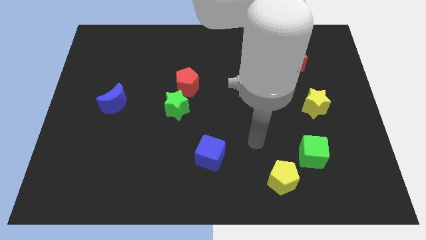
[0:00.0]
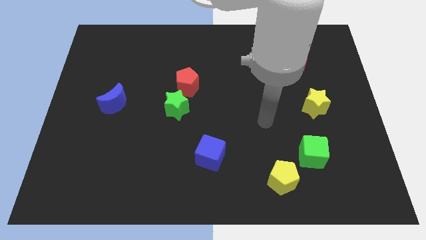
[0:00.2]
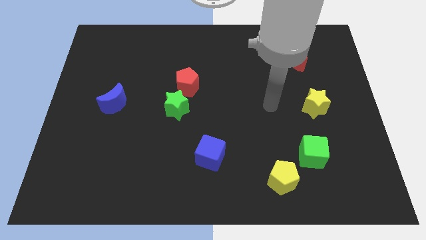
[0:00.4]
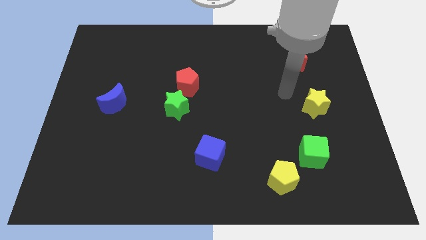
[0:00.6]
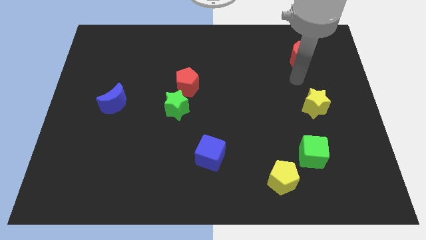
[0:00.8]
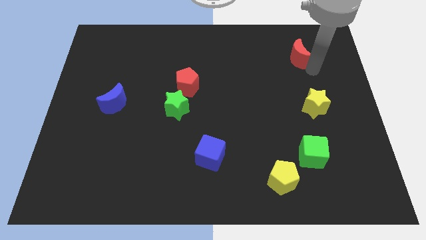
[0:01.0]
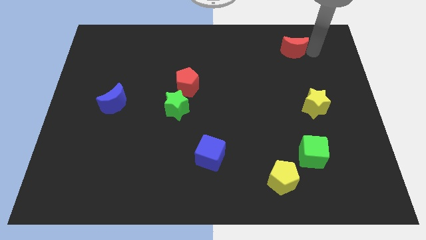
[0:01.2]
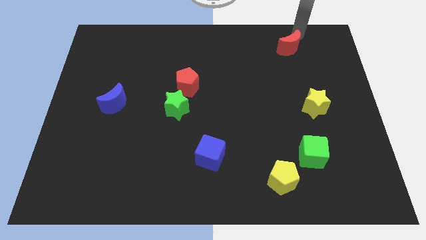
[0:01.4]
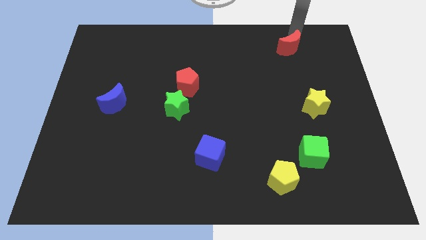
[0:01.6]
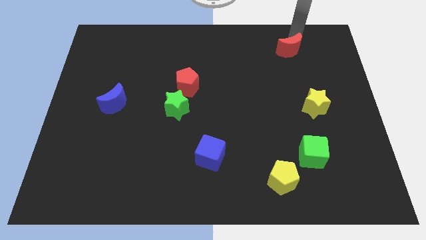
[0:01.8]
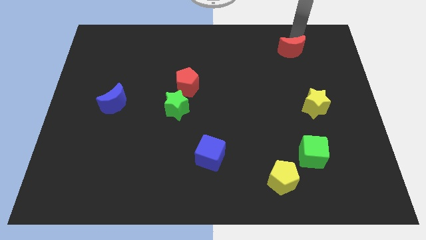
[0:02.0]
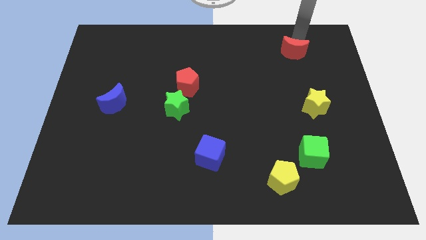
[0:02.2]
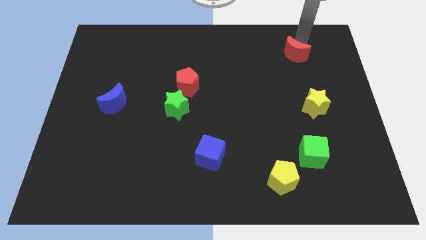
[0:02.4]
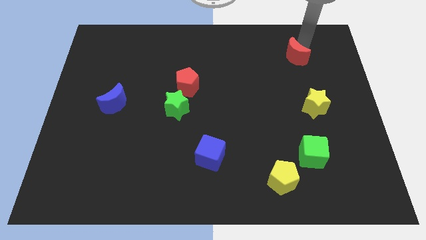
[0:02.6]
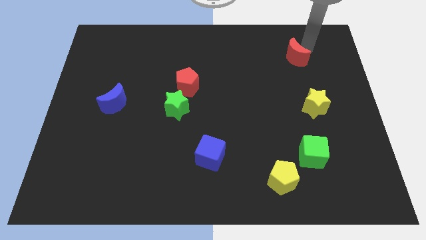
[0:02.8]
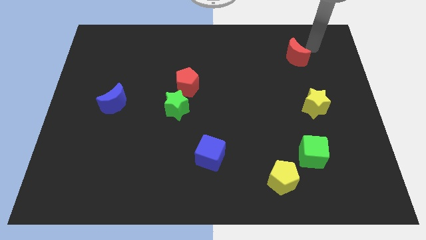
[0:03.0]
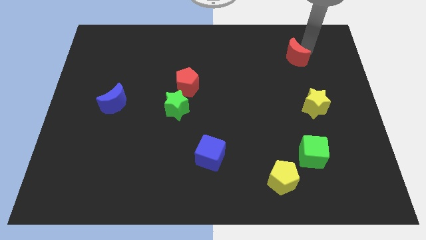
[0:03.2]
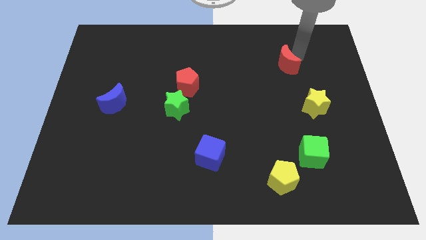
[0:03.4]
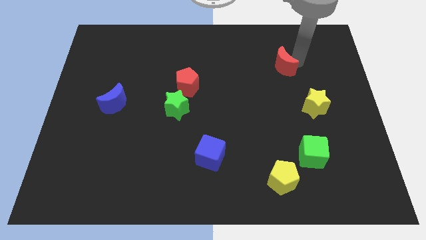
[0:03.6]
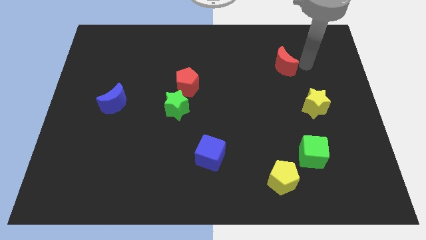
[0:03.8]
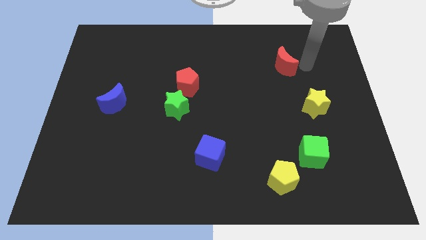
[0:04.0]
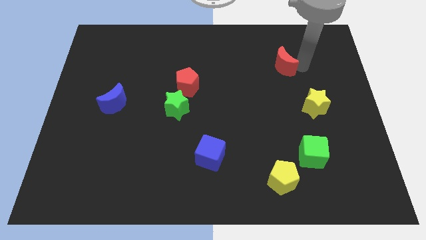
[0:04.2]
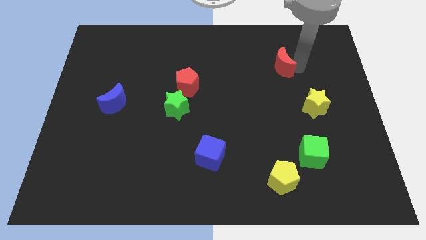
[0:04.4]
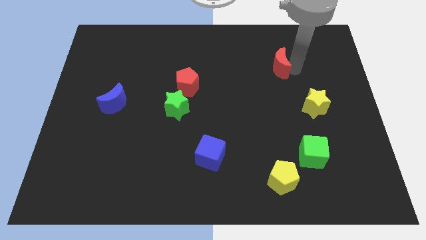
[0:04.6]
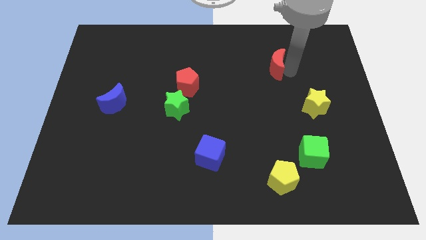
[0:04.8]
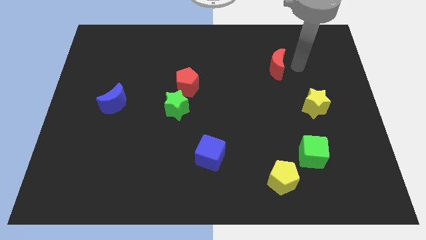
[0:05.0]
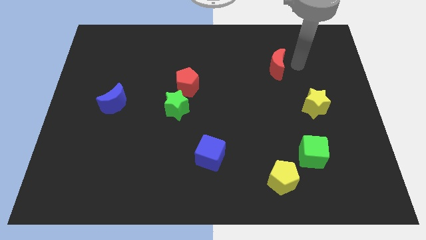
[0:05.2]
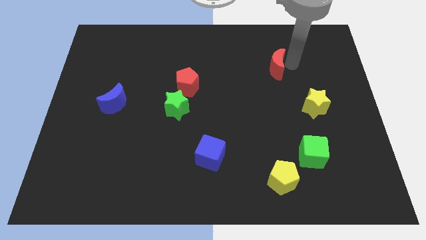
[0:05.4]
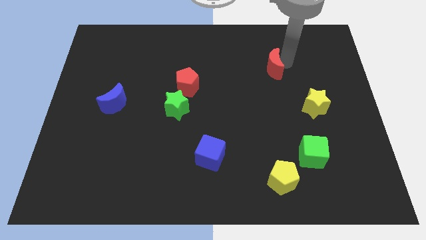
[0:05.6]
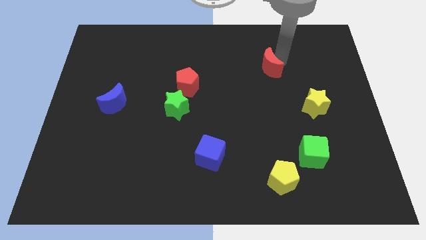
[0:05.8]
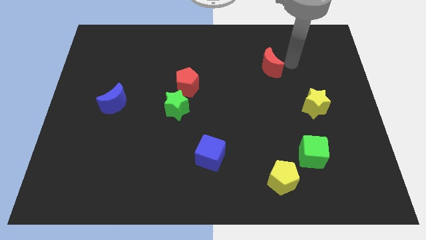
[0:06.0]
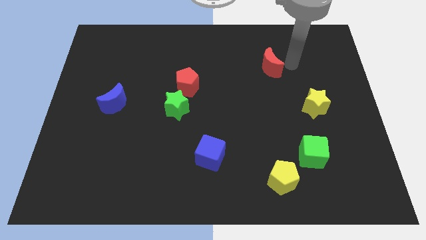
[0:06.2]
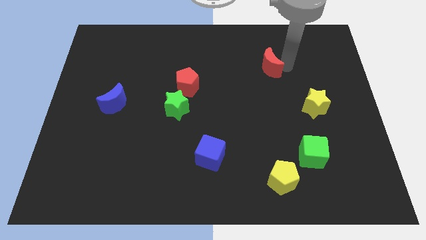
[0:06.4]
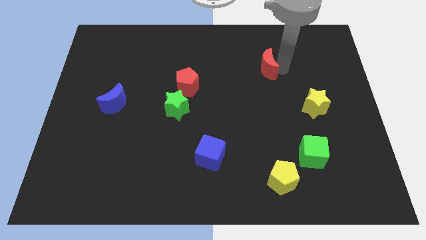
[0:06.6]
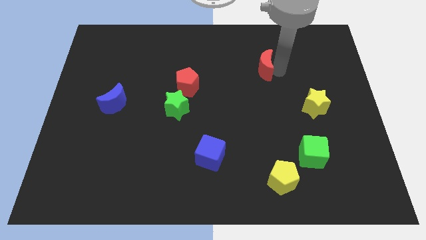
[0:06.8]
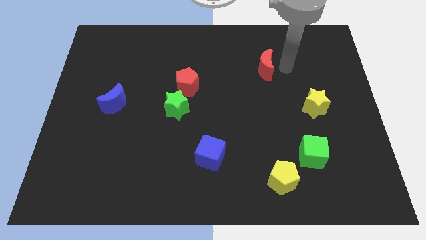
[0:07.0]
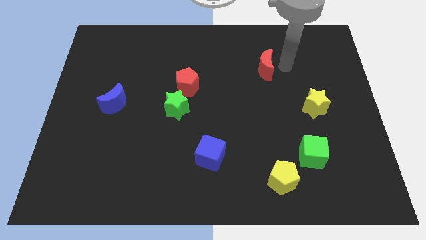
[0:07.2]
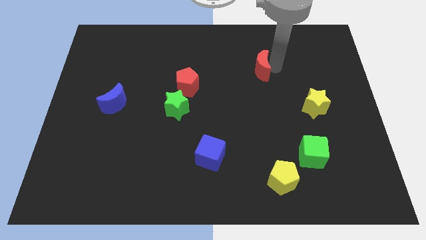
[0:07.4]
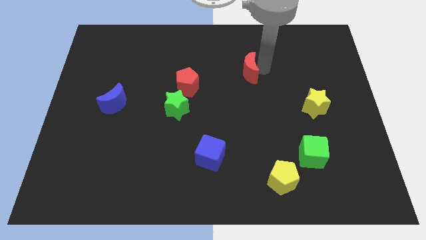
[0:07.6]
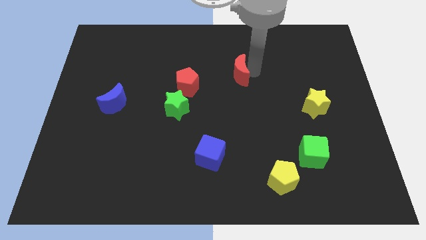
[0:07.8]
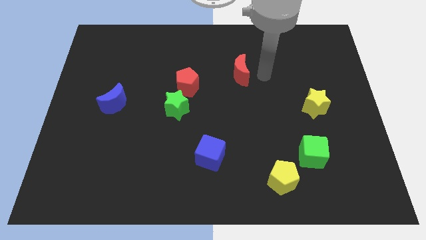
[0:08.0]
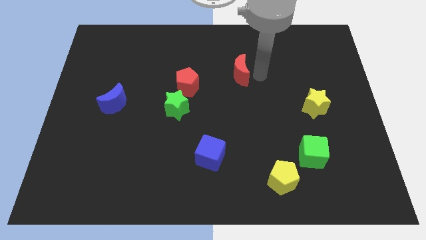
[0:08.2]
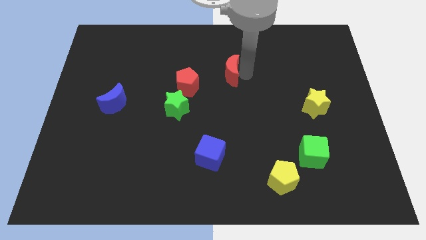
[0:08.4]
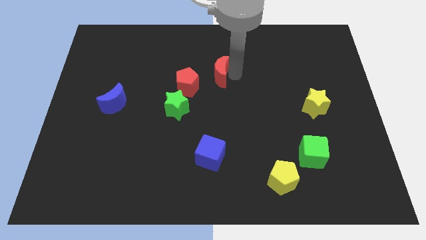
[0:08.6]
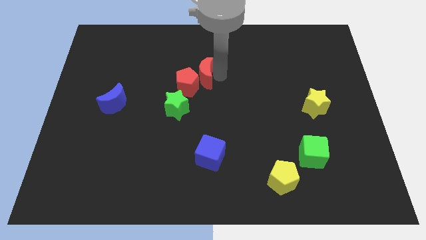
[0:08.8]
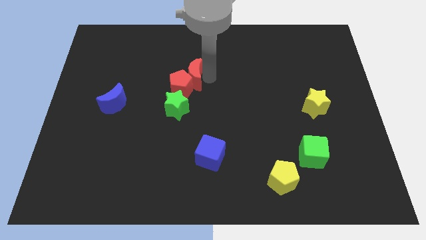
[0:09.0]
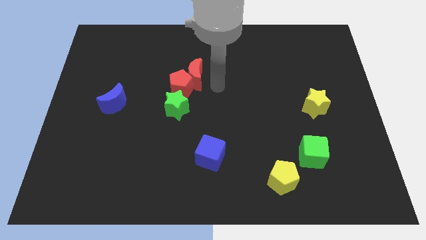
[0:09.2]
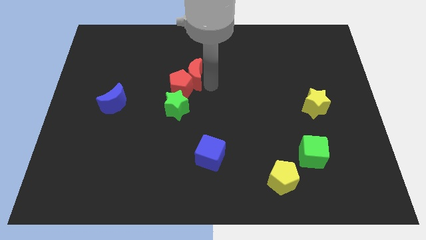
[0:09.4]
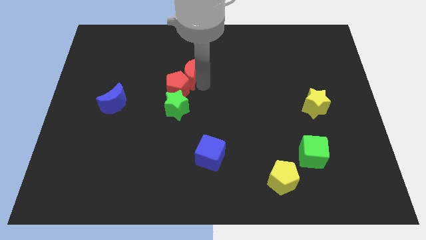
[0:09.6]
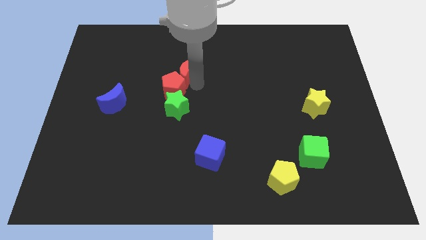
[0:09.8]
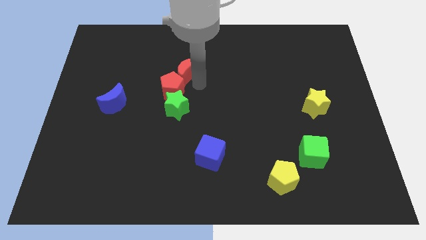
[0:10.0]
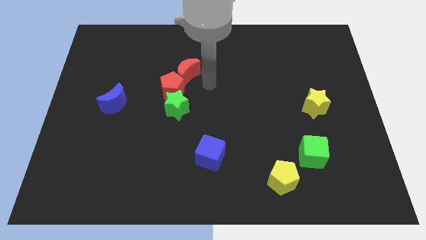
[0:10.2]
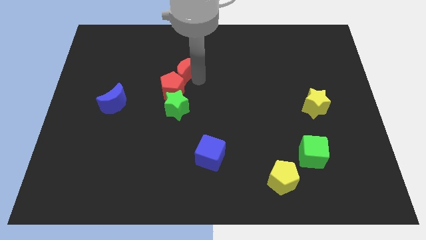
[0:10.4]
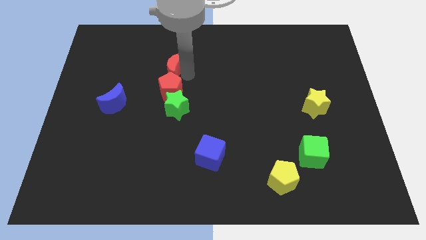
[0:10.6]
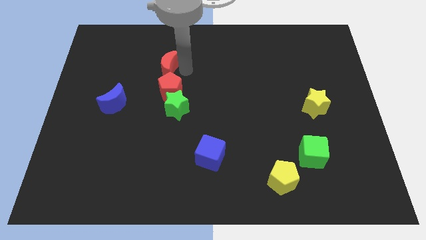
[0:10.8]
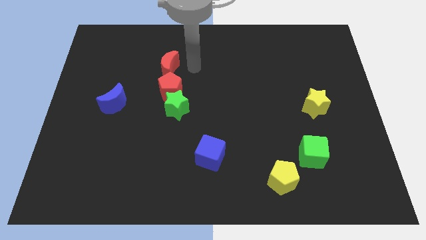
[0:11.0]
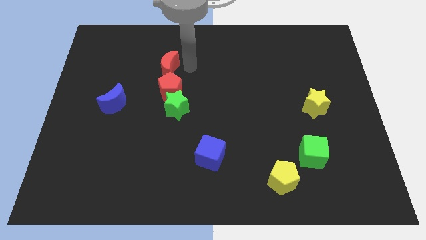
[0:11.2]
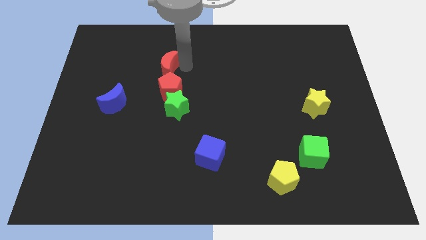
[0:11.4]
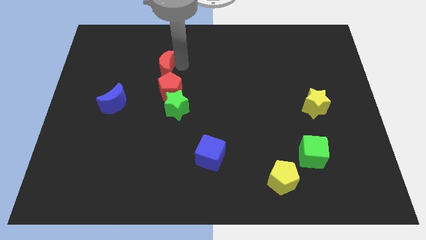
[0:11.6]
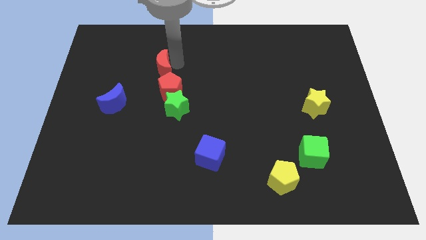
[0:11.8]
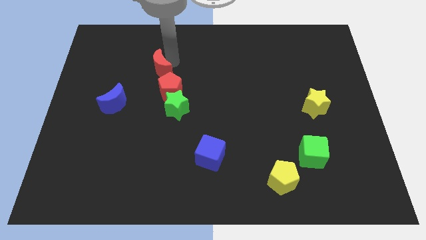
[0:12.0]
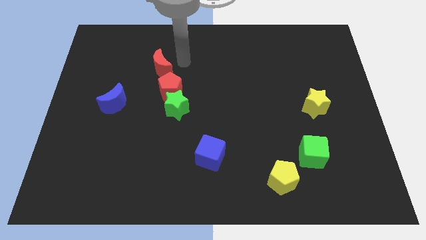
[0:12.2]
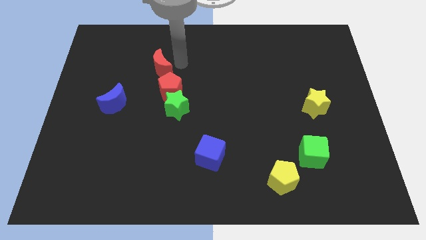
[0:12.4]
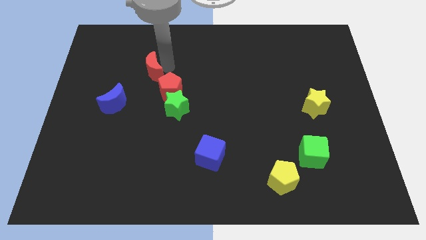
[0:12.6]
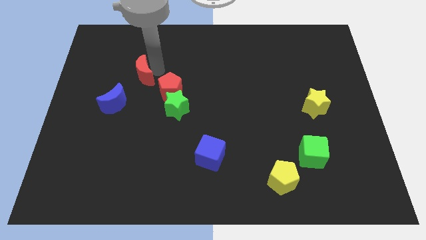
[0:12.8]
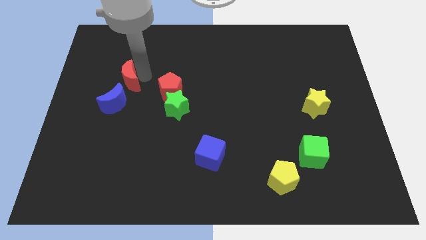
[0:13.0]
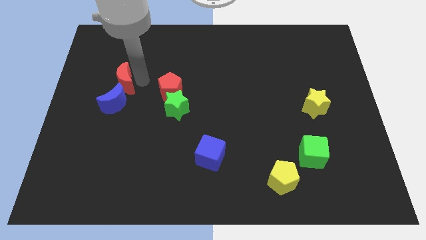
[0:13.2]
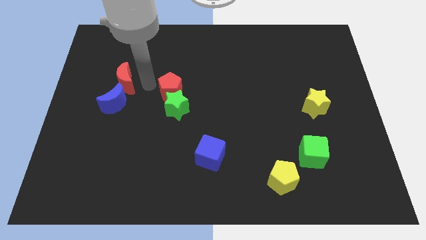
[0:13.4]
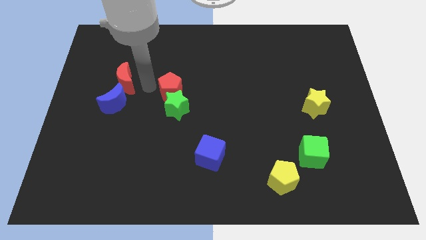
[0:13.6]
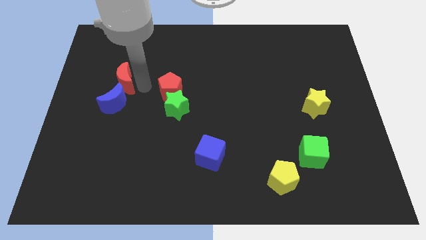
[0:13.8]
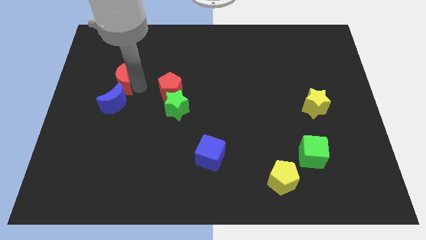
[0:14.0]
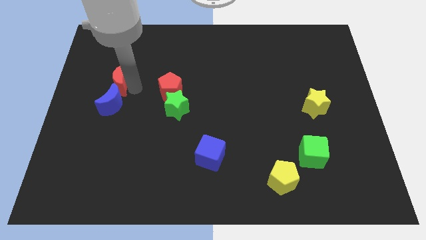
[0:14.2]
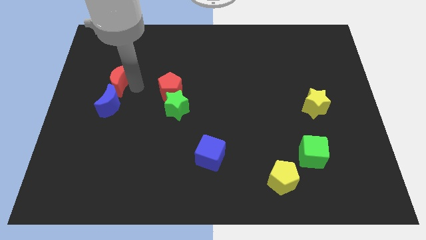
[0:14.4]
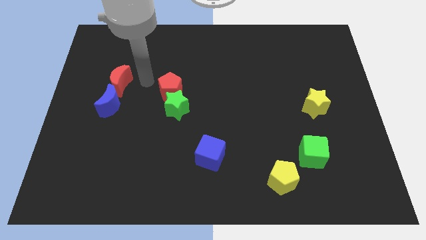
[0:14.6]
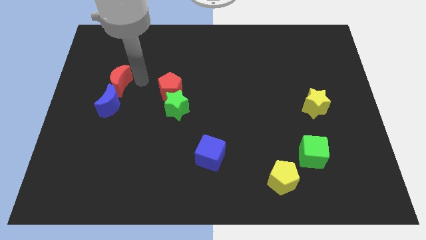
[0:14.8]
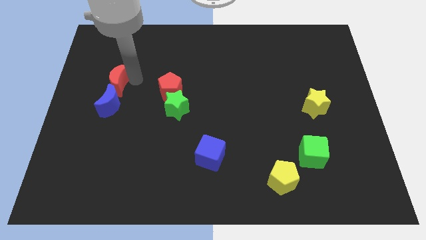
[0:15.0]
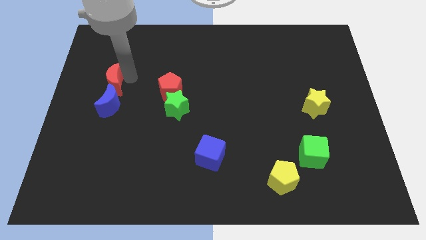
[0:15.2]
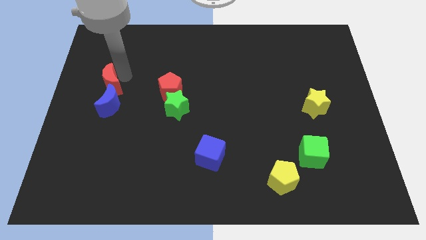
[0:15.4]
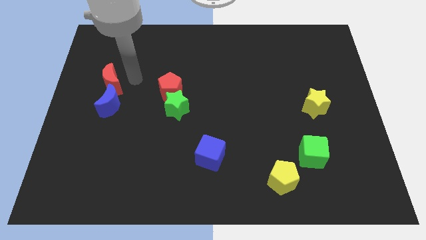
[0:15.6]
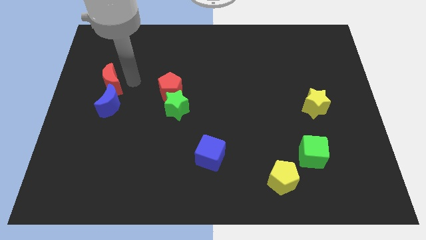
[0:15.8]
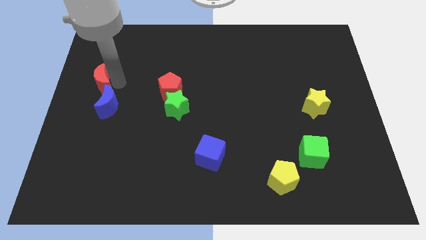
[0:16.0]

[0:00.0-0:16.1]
move the red moon to the center left
